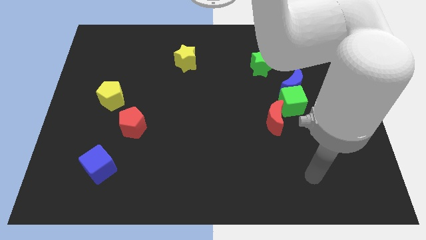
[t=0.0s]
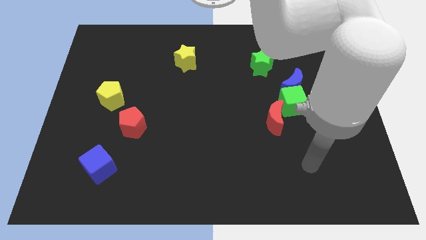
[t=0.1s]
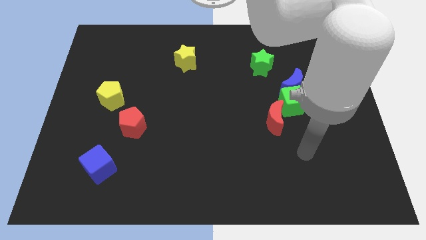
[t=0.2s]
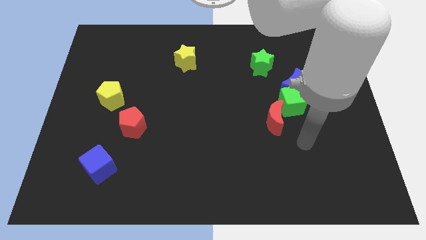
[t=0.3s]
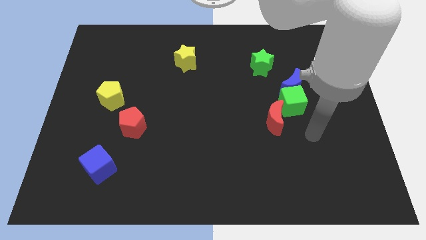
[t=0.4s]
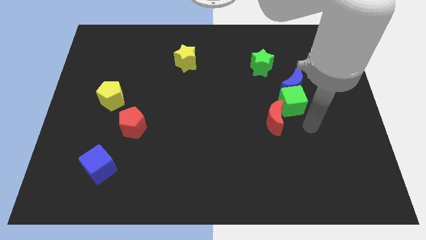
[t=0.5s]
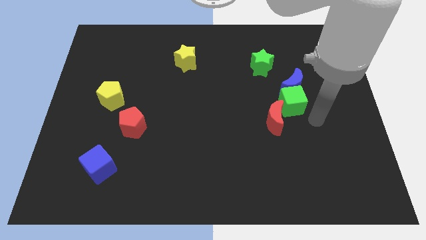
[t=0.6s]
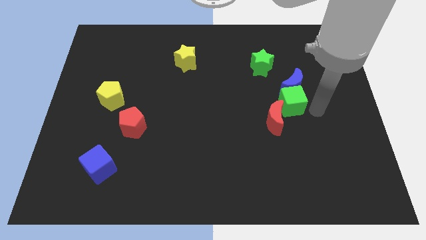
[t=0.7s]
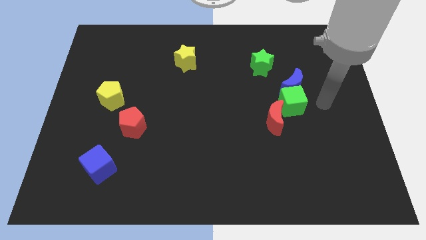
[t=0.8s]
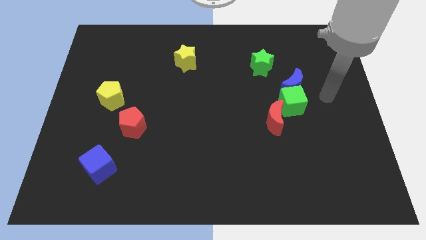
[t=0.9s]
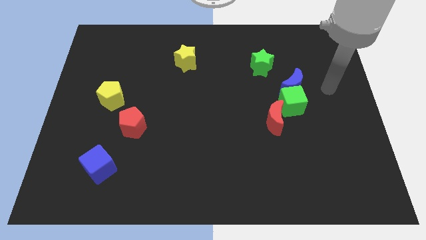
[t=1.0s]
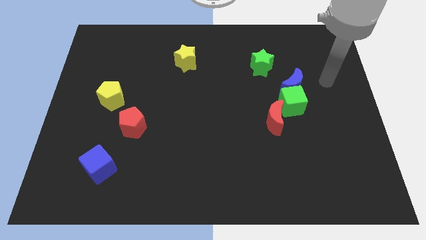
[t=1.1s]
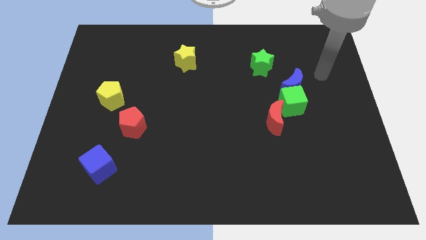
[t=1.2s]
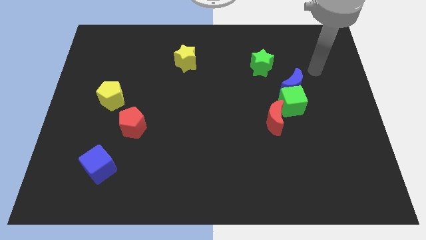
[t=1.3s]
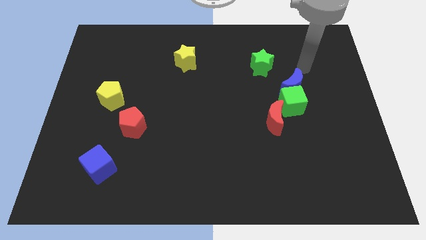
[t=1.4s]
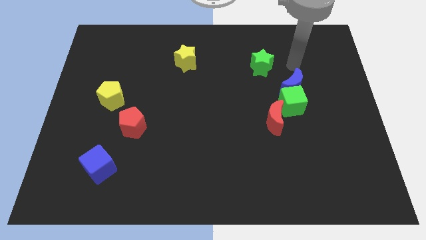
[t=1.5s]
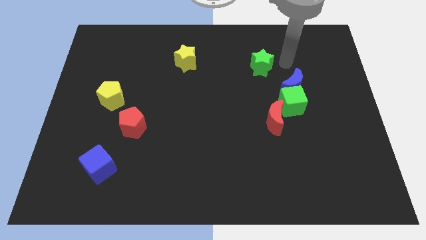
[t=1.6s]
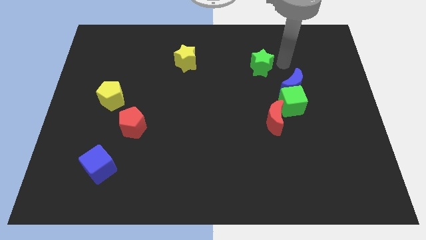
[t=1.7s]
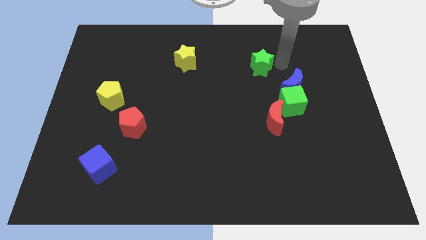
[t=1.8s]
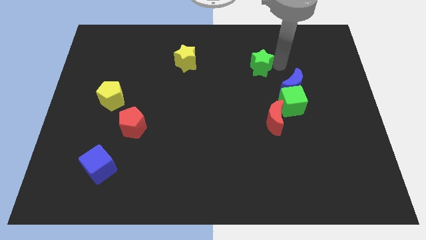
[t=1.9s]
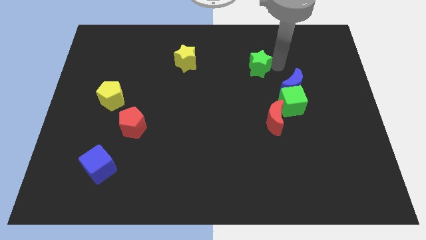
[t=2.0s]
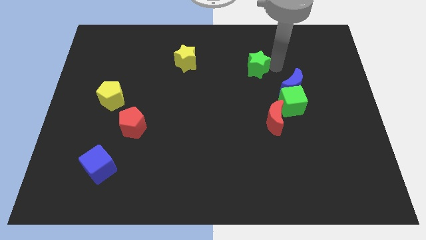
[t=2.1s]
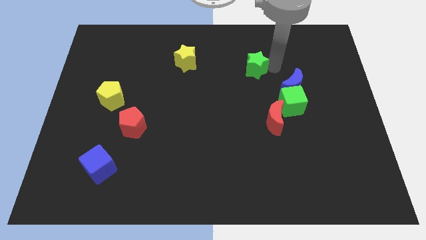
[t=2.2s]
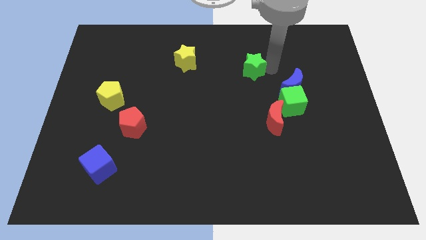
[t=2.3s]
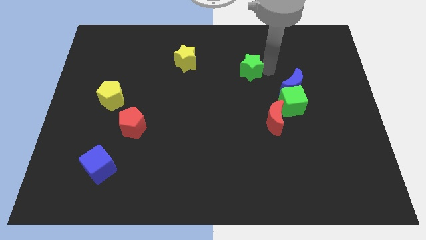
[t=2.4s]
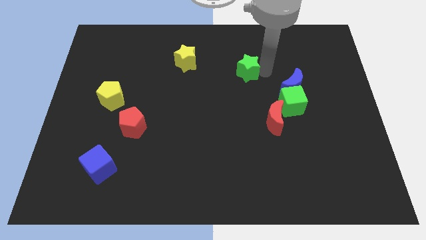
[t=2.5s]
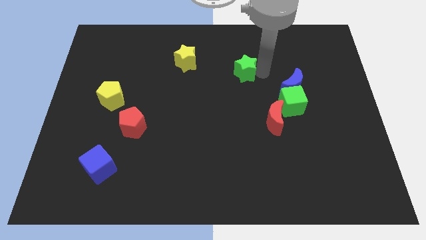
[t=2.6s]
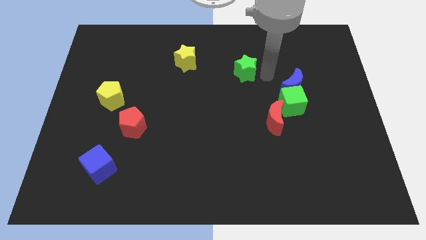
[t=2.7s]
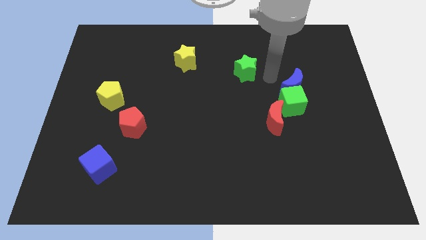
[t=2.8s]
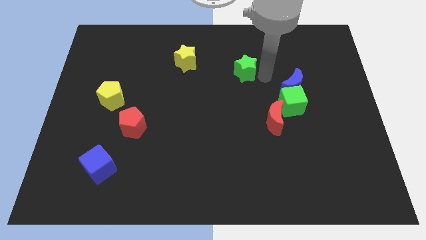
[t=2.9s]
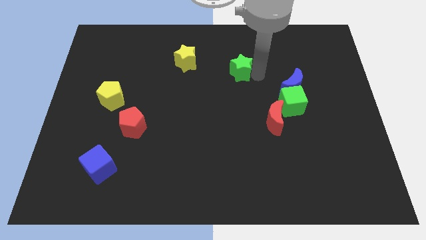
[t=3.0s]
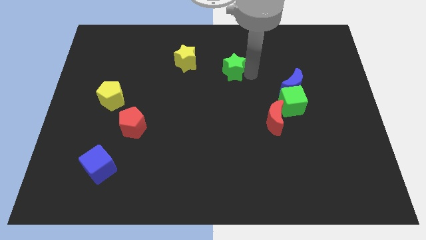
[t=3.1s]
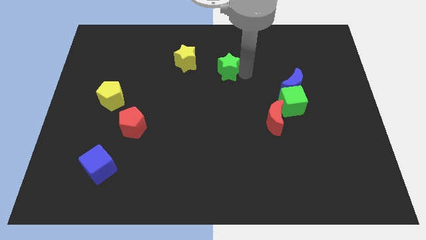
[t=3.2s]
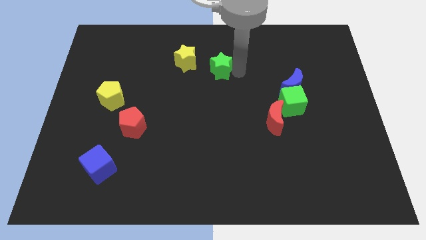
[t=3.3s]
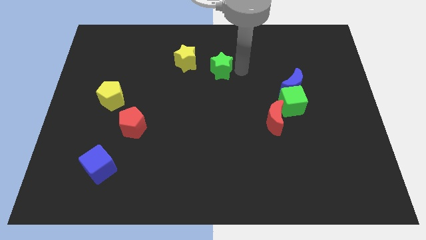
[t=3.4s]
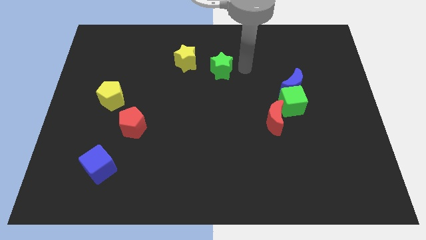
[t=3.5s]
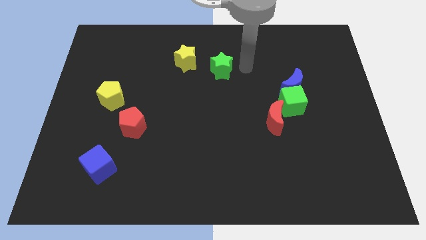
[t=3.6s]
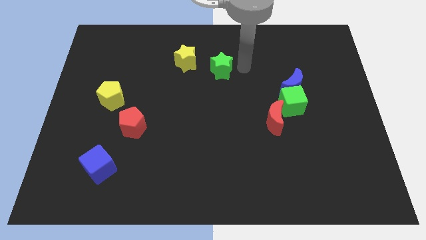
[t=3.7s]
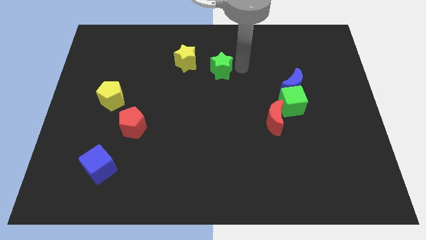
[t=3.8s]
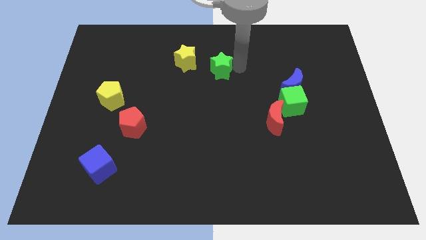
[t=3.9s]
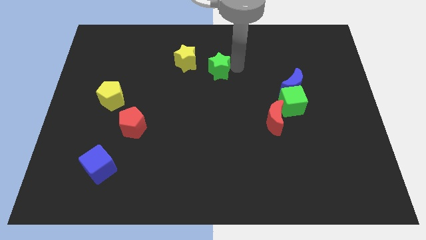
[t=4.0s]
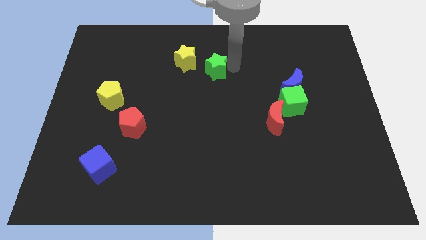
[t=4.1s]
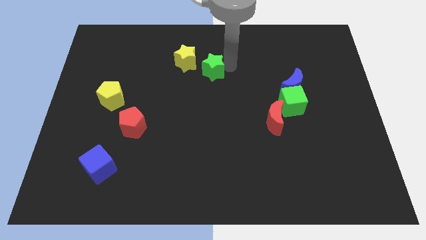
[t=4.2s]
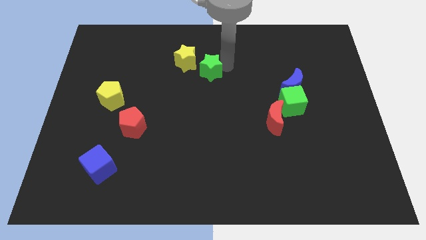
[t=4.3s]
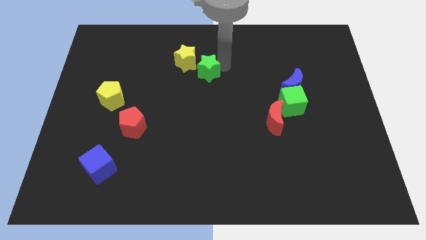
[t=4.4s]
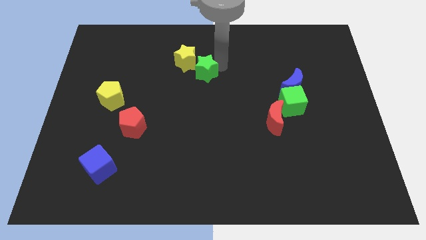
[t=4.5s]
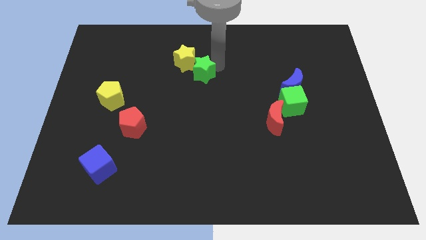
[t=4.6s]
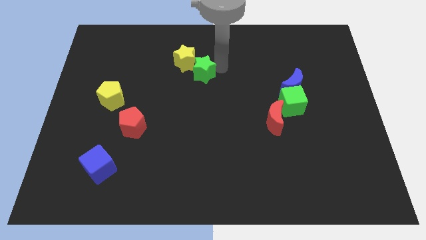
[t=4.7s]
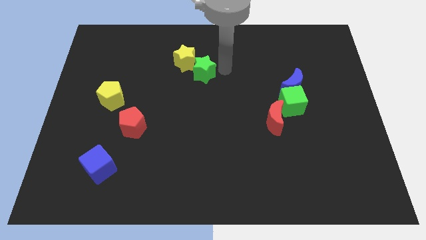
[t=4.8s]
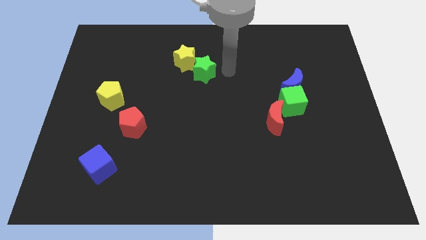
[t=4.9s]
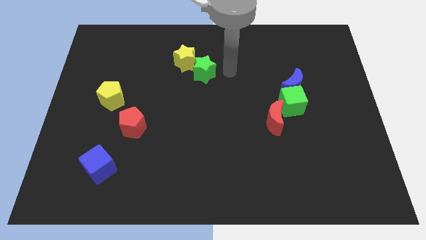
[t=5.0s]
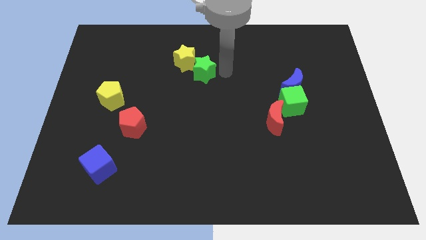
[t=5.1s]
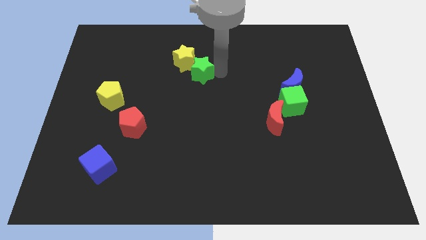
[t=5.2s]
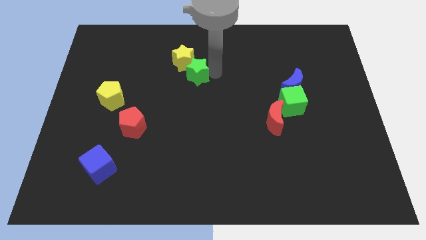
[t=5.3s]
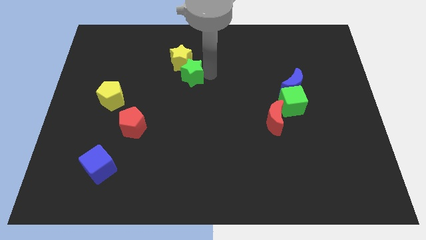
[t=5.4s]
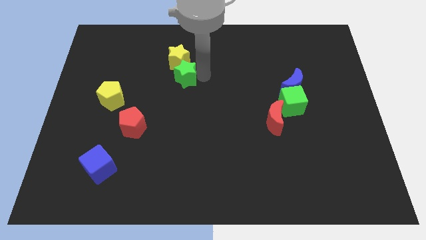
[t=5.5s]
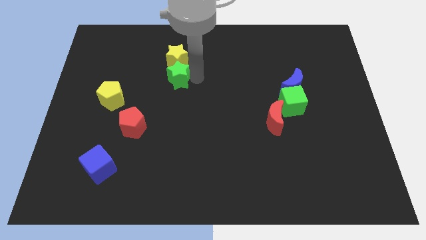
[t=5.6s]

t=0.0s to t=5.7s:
move the green star to the left

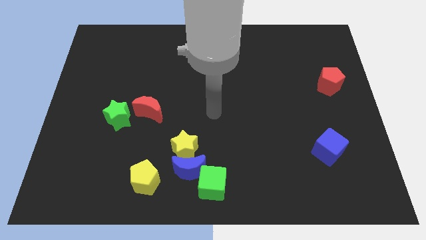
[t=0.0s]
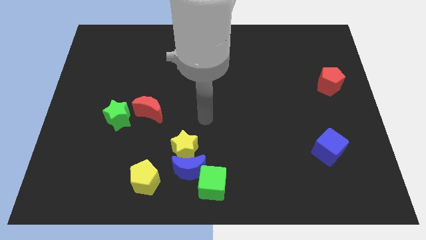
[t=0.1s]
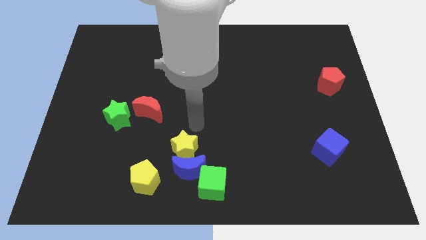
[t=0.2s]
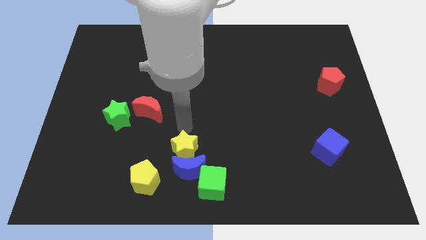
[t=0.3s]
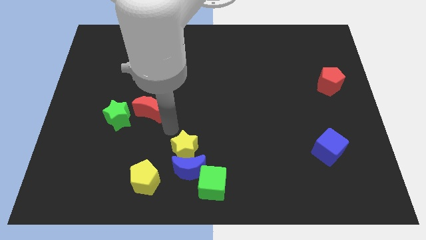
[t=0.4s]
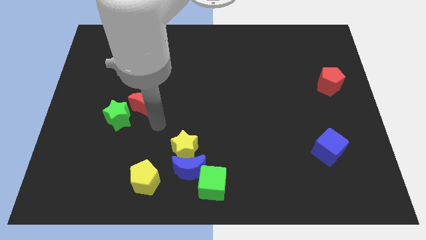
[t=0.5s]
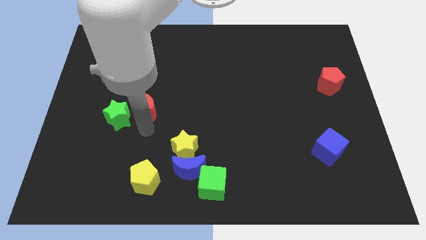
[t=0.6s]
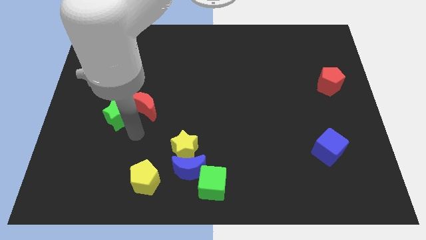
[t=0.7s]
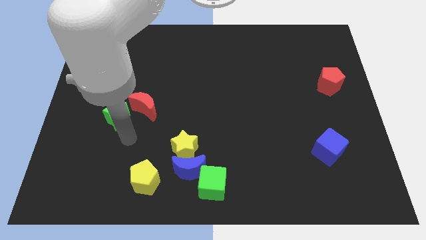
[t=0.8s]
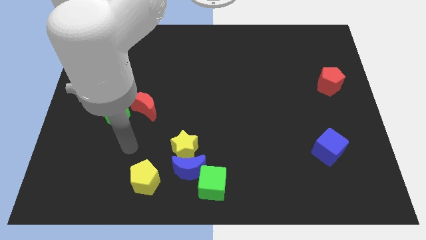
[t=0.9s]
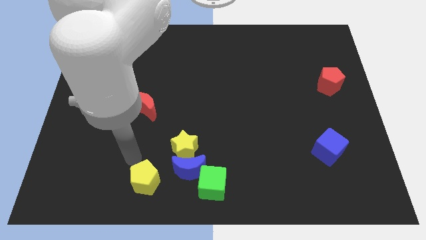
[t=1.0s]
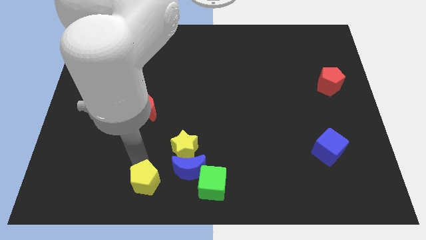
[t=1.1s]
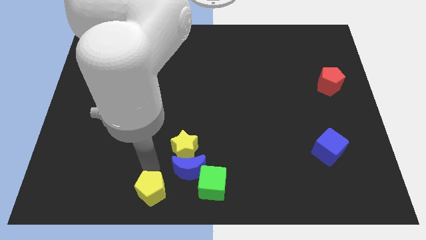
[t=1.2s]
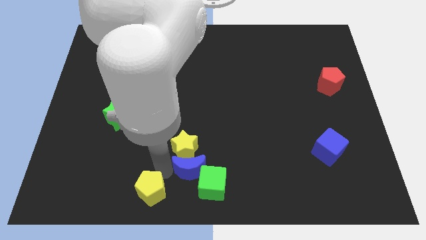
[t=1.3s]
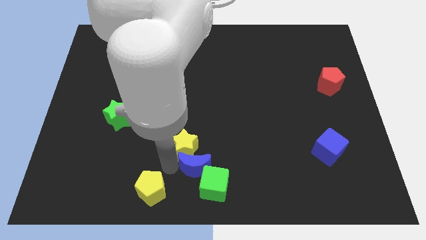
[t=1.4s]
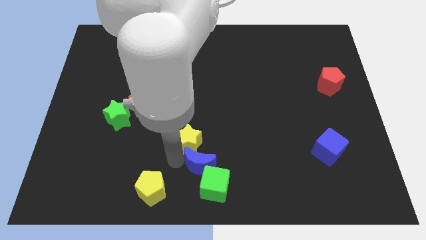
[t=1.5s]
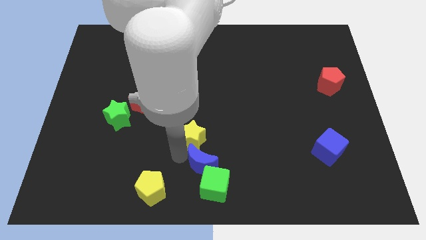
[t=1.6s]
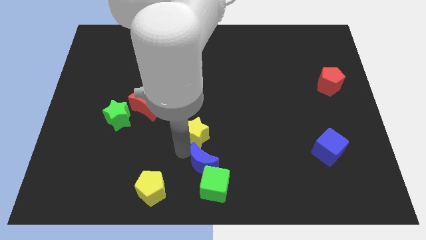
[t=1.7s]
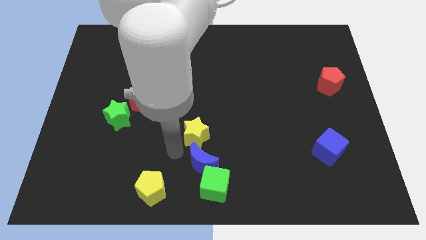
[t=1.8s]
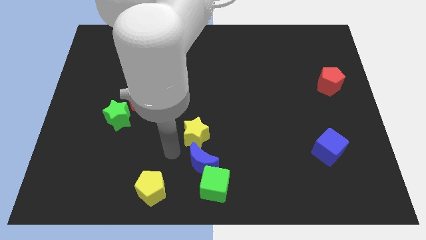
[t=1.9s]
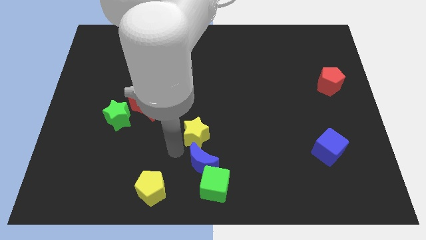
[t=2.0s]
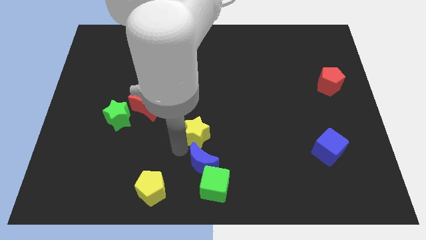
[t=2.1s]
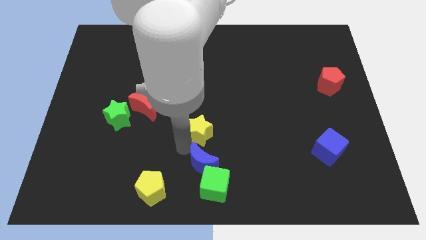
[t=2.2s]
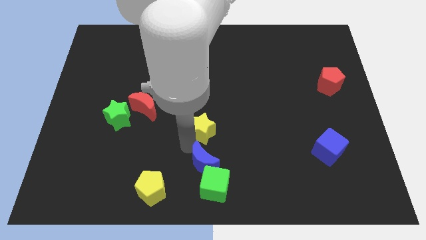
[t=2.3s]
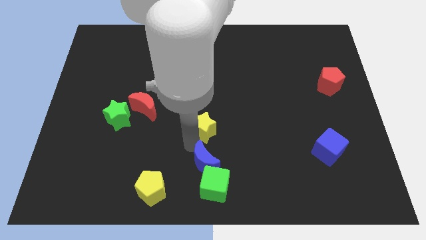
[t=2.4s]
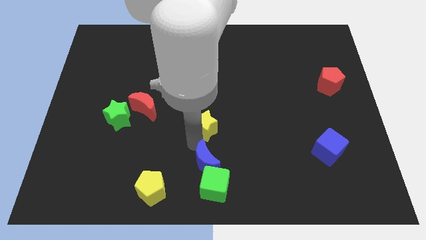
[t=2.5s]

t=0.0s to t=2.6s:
move the yellow star diagonally up and right a bit
